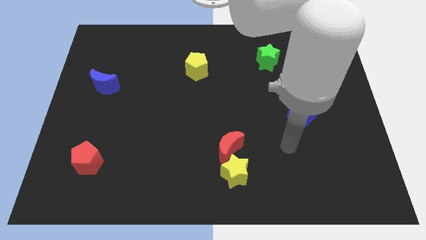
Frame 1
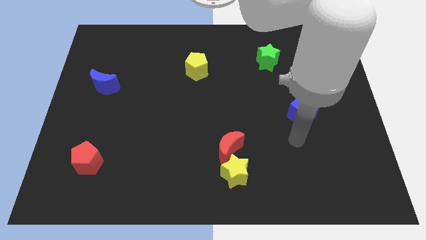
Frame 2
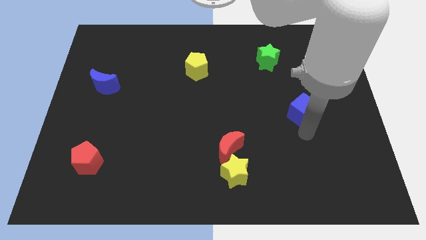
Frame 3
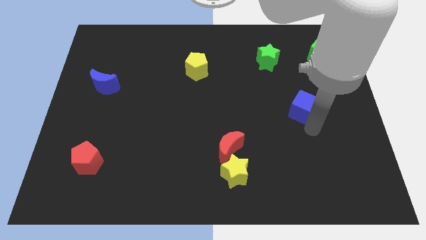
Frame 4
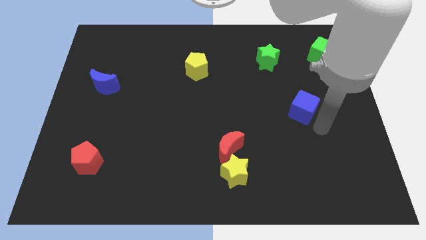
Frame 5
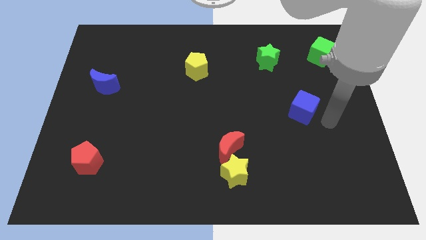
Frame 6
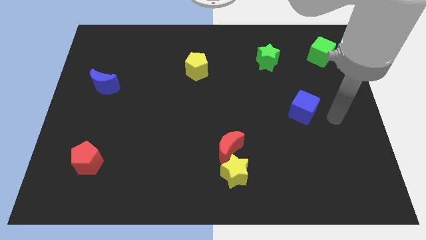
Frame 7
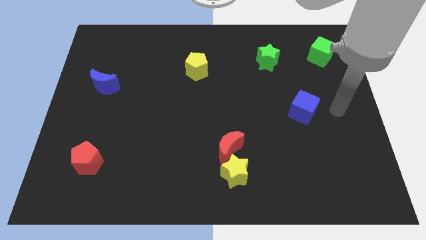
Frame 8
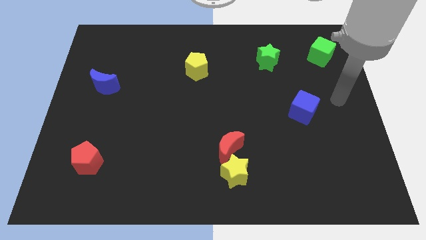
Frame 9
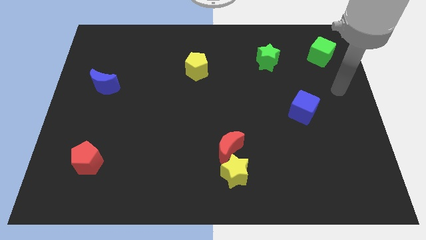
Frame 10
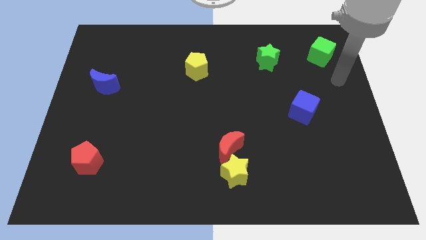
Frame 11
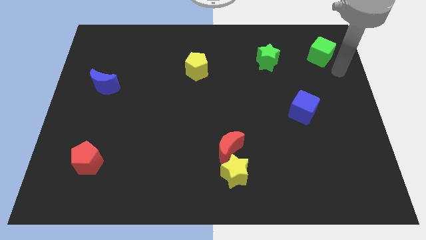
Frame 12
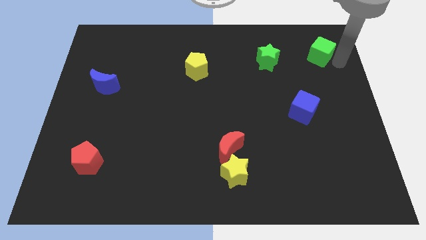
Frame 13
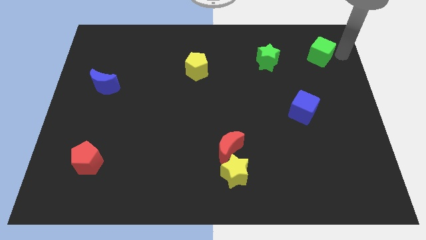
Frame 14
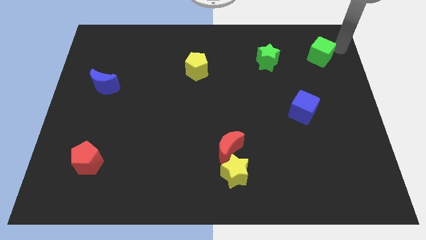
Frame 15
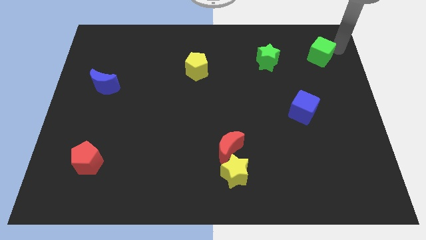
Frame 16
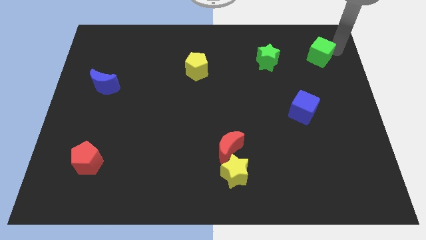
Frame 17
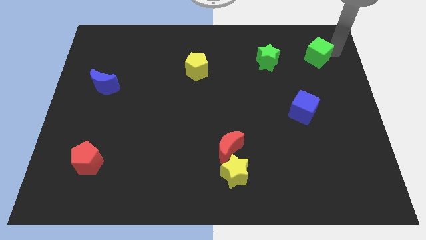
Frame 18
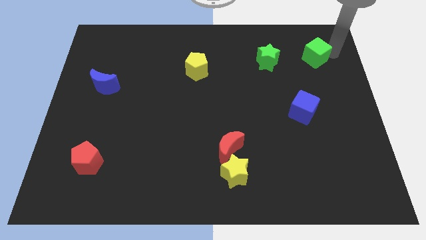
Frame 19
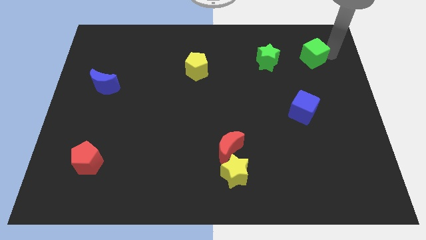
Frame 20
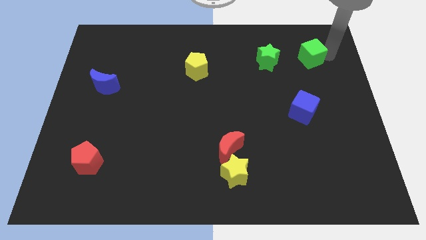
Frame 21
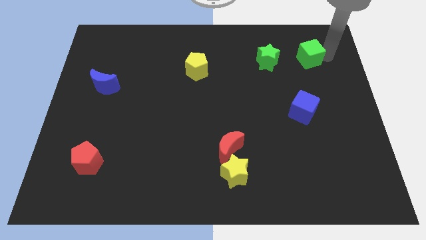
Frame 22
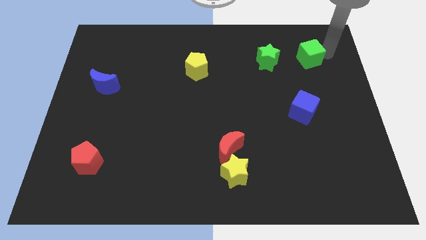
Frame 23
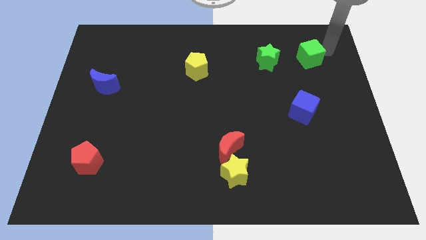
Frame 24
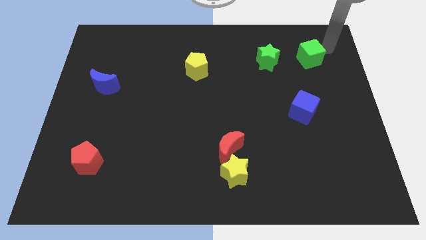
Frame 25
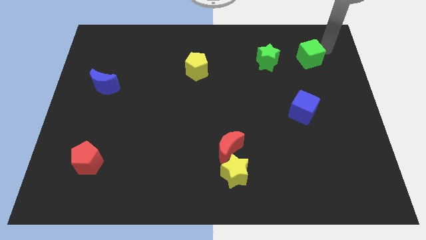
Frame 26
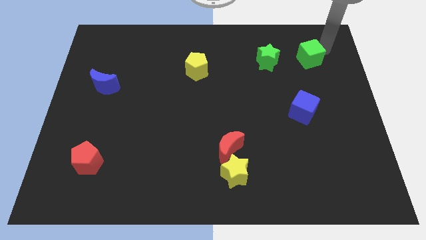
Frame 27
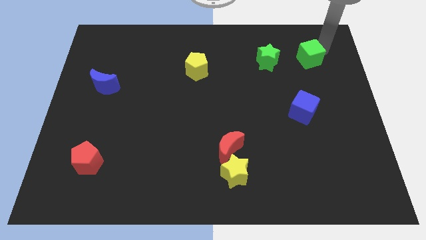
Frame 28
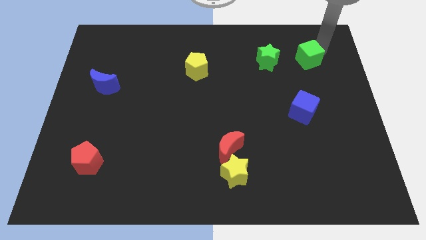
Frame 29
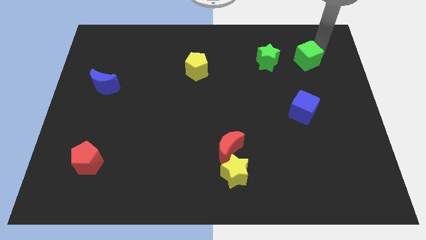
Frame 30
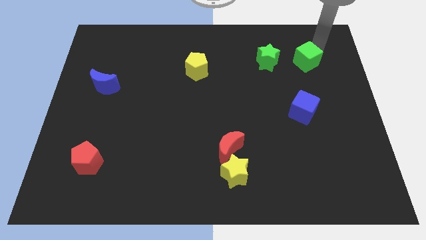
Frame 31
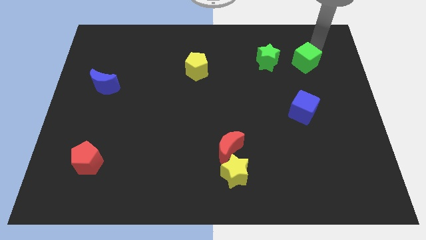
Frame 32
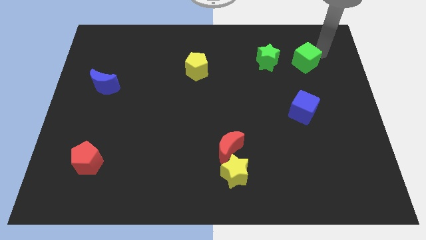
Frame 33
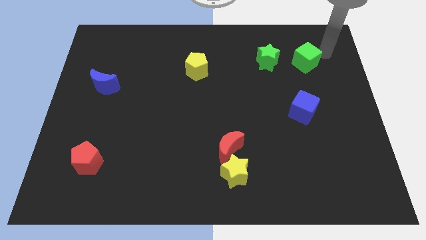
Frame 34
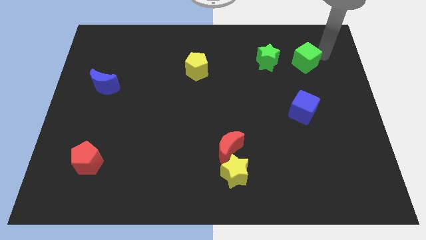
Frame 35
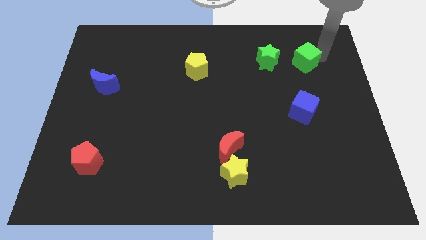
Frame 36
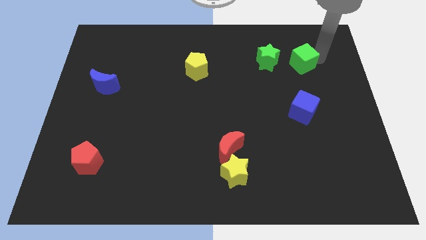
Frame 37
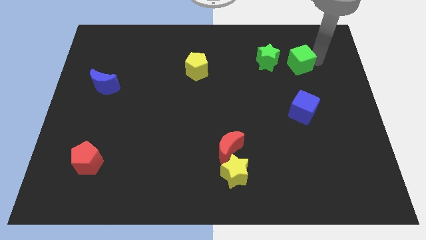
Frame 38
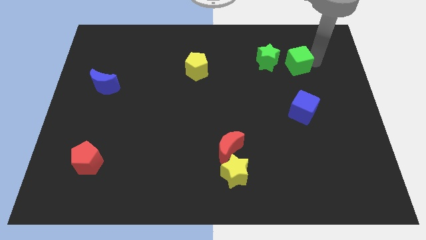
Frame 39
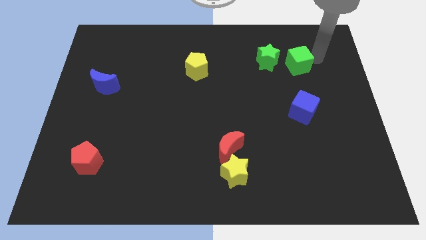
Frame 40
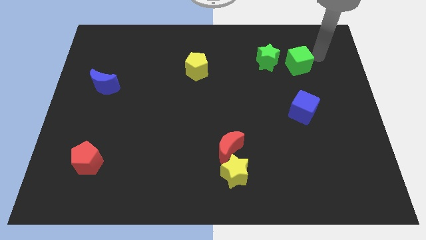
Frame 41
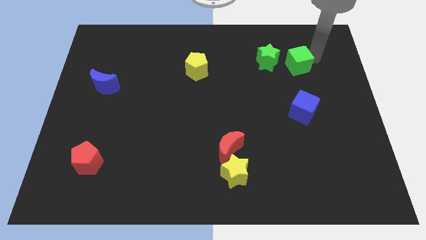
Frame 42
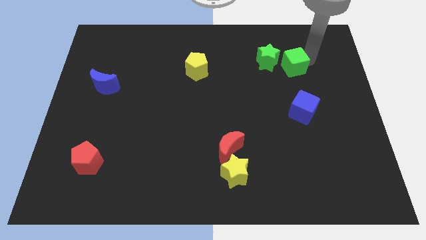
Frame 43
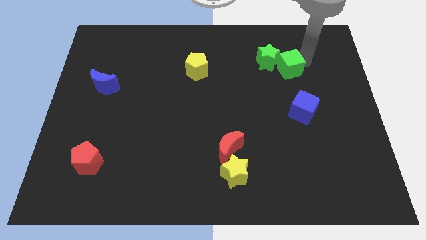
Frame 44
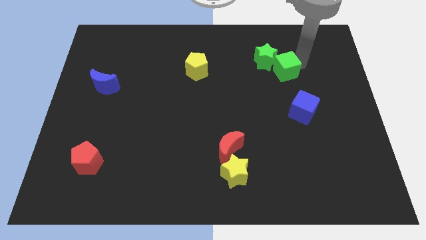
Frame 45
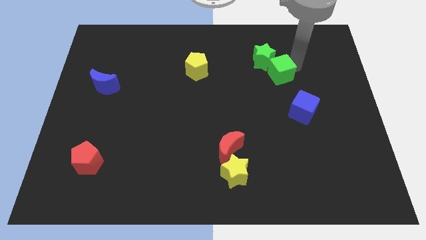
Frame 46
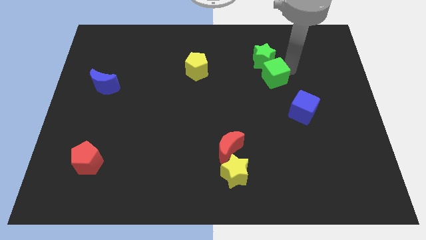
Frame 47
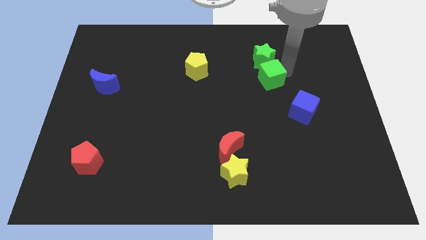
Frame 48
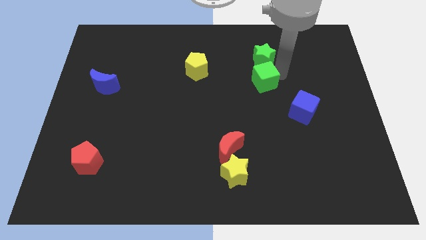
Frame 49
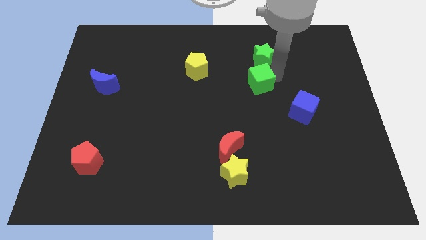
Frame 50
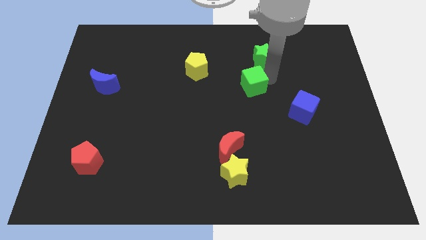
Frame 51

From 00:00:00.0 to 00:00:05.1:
move the green cube to the center
